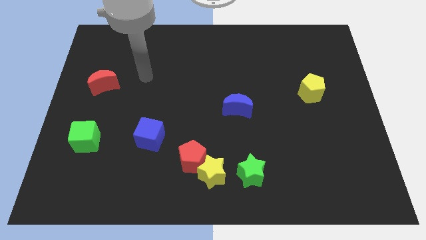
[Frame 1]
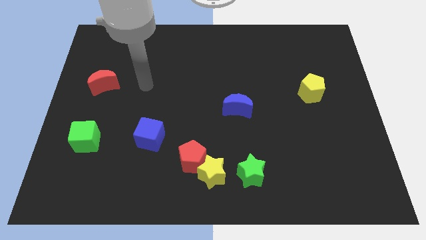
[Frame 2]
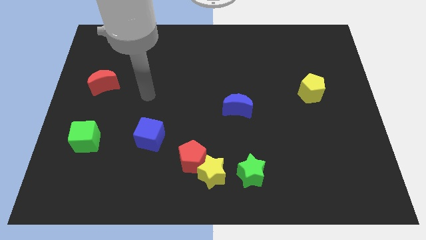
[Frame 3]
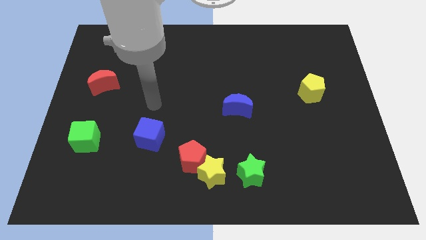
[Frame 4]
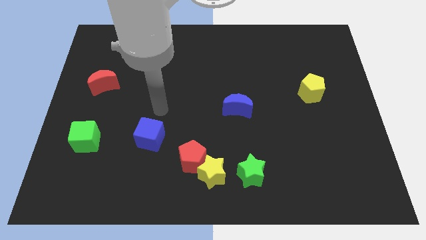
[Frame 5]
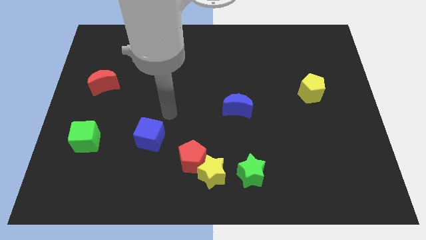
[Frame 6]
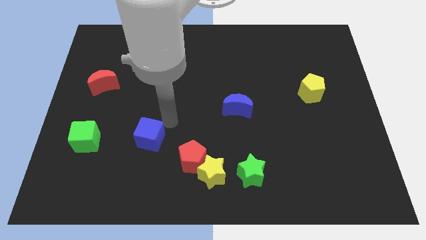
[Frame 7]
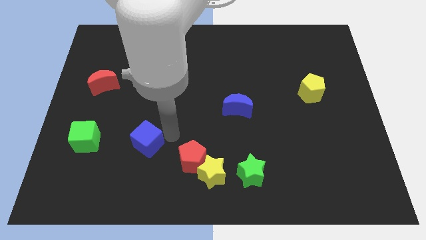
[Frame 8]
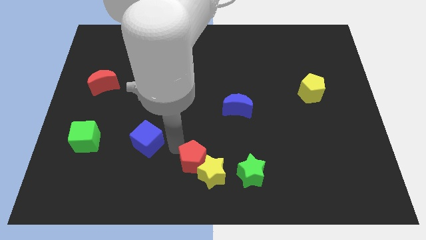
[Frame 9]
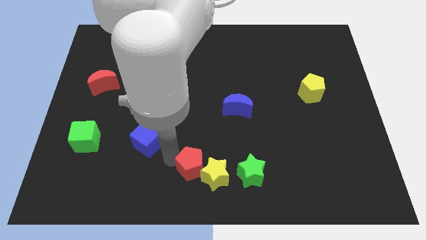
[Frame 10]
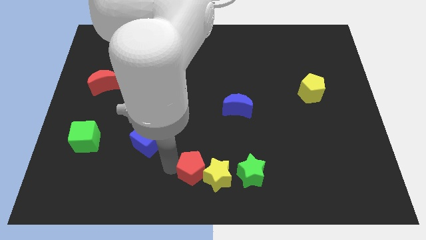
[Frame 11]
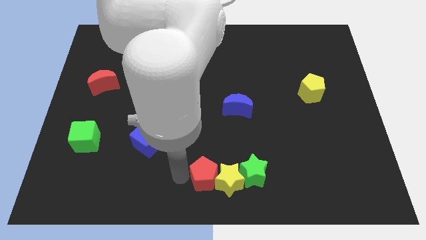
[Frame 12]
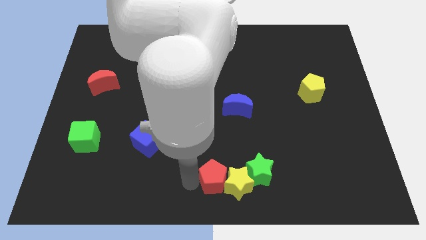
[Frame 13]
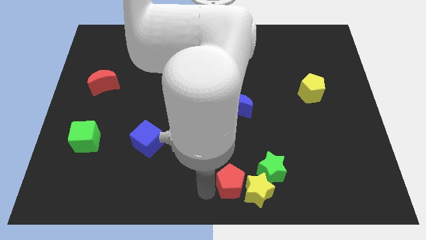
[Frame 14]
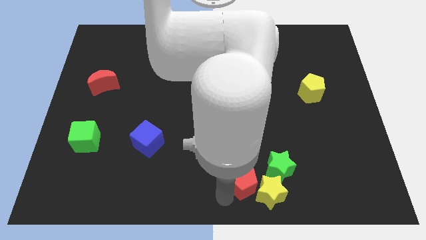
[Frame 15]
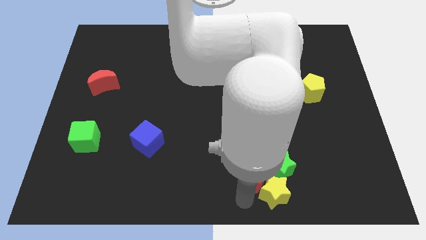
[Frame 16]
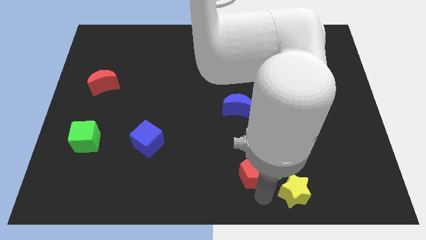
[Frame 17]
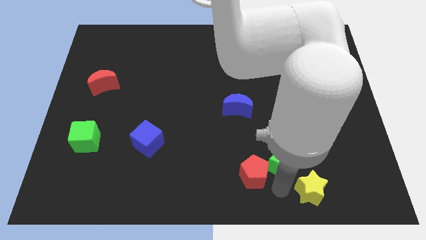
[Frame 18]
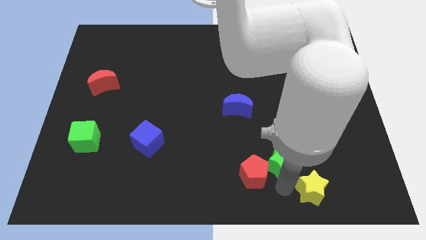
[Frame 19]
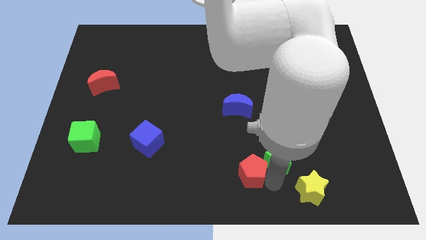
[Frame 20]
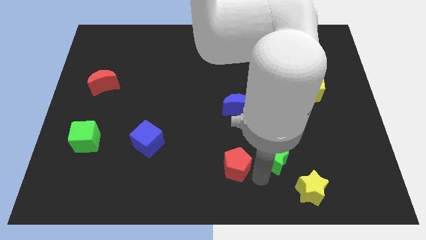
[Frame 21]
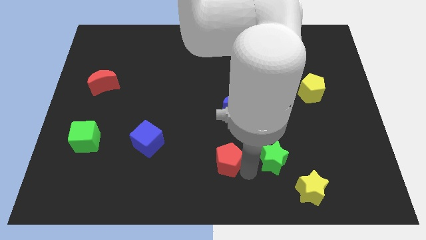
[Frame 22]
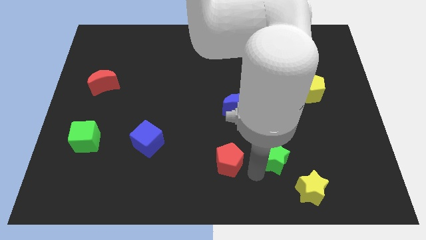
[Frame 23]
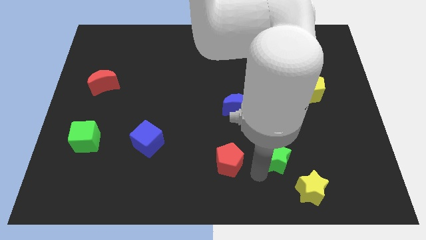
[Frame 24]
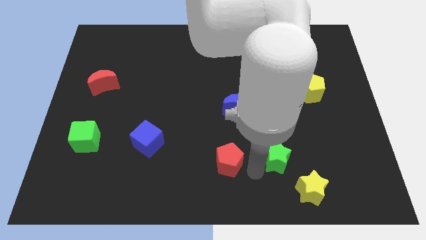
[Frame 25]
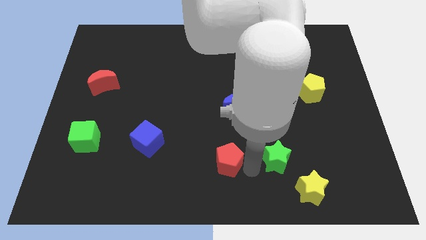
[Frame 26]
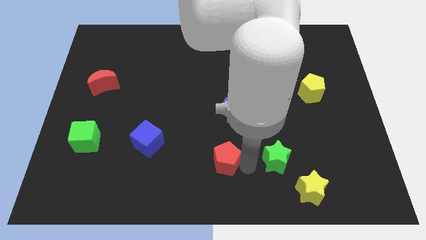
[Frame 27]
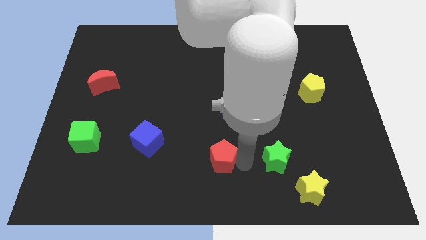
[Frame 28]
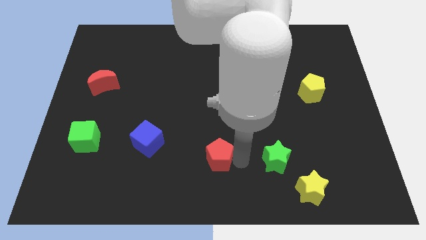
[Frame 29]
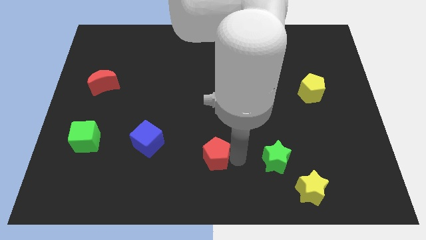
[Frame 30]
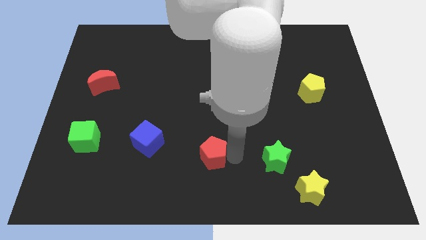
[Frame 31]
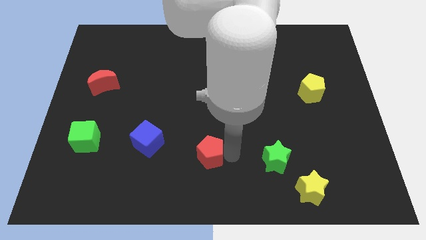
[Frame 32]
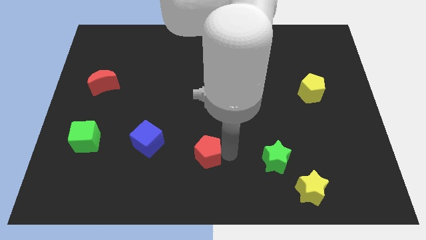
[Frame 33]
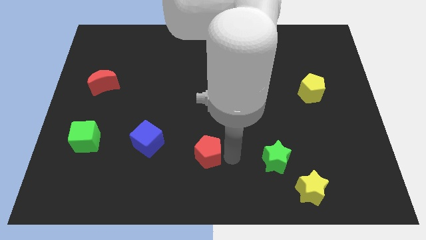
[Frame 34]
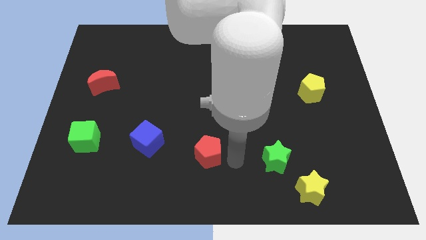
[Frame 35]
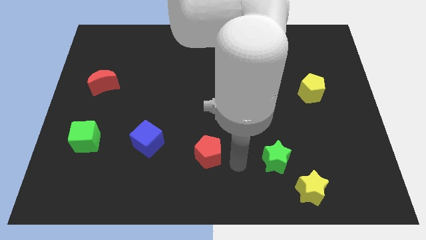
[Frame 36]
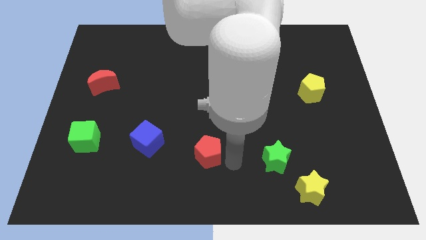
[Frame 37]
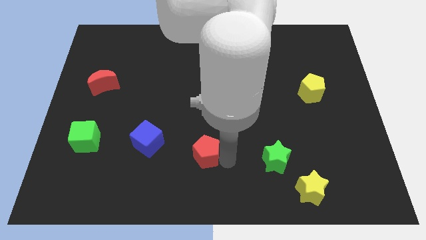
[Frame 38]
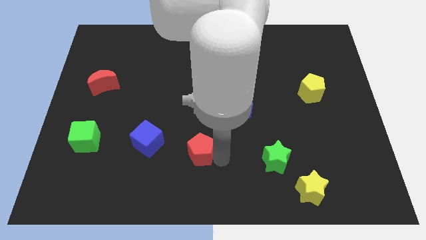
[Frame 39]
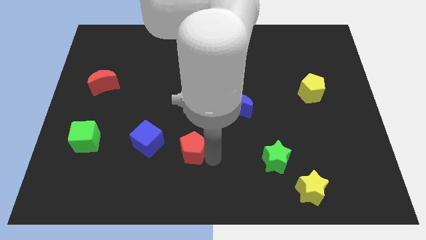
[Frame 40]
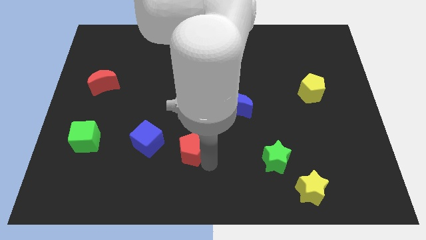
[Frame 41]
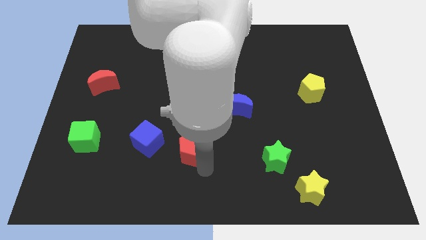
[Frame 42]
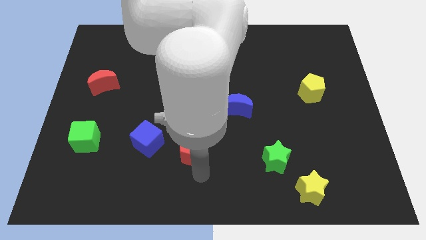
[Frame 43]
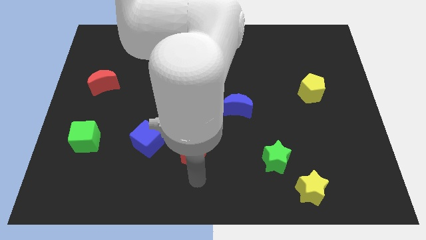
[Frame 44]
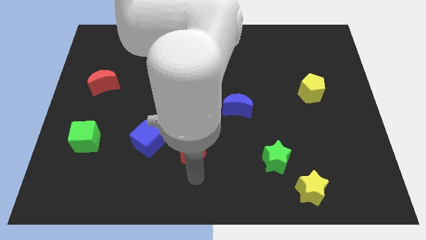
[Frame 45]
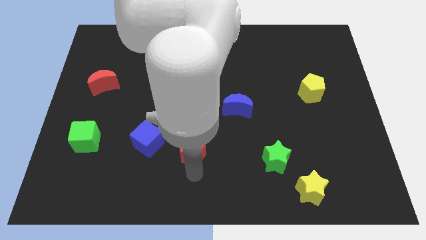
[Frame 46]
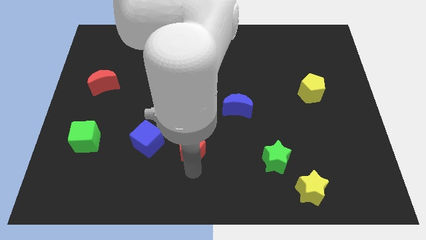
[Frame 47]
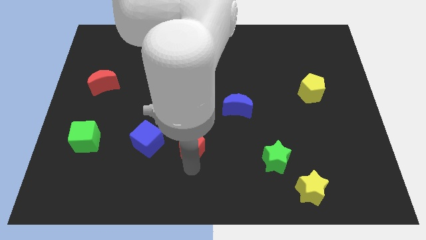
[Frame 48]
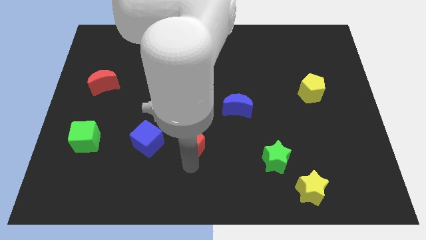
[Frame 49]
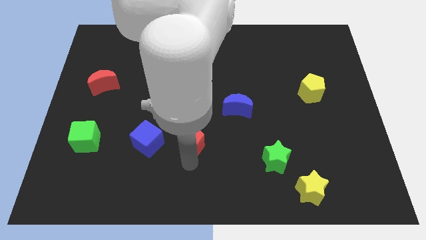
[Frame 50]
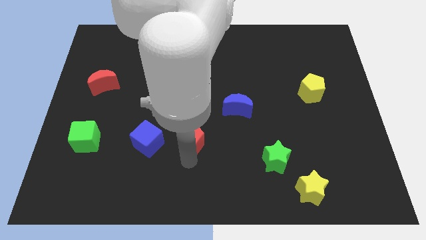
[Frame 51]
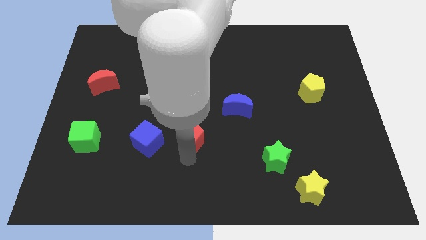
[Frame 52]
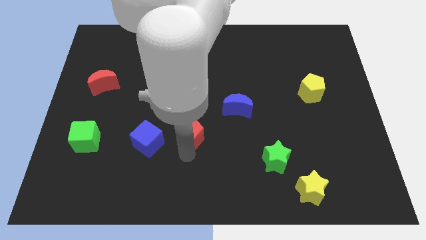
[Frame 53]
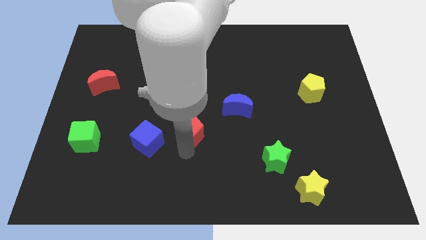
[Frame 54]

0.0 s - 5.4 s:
move the red pentagon up a little bit

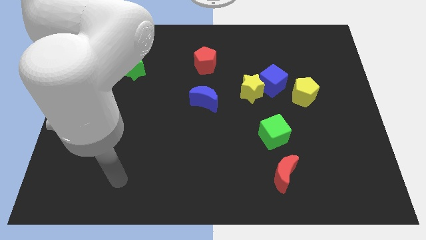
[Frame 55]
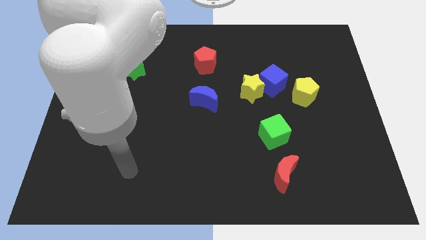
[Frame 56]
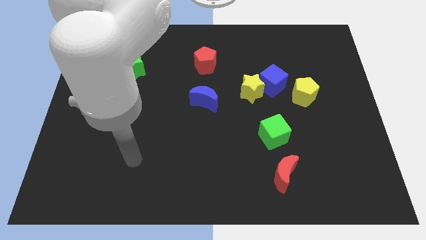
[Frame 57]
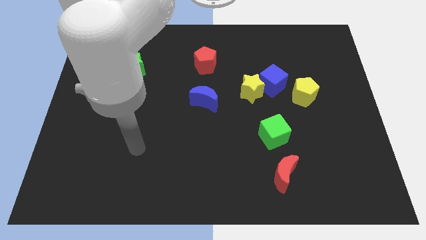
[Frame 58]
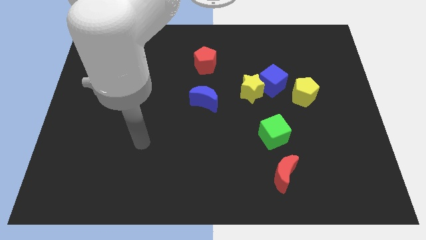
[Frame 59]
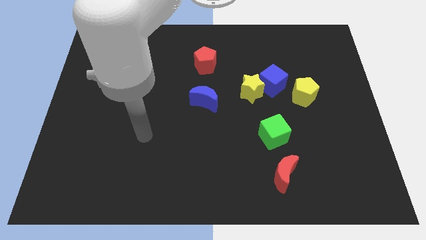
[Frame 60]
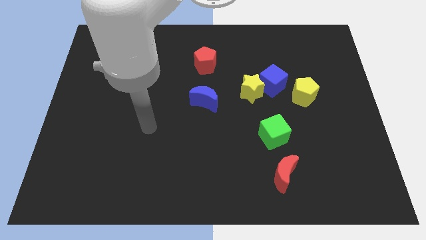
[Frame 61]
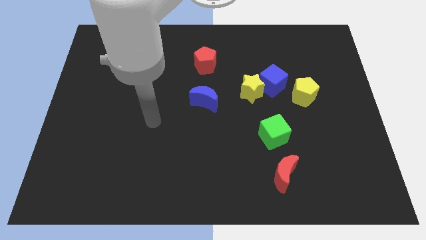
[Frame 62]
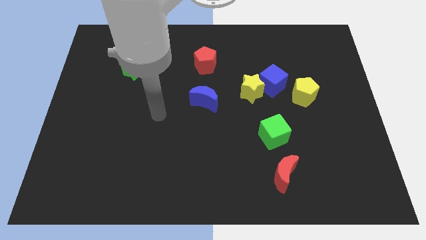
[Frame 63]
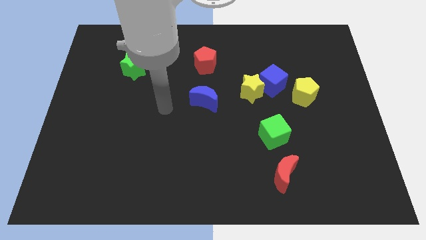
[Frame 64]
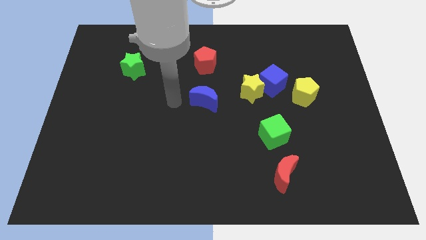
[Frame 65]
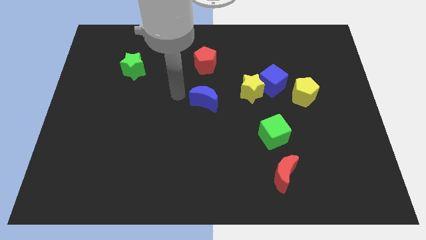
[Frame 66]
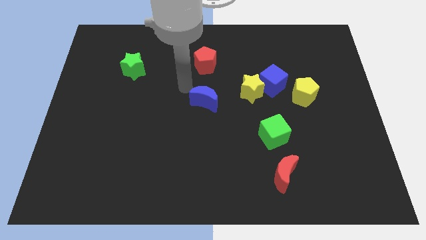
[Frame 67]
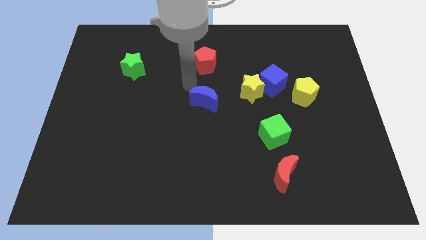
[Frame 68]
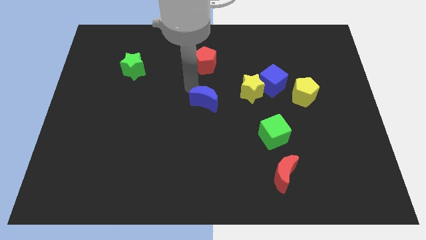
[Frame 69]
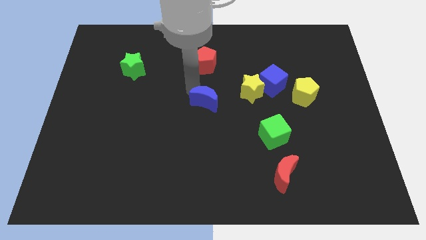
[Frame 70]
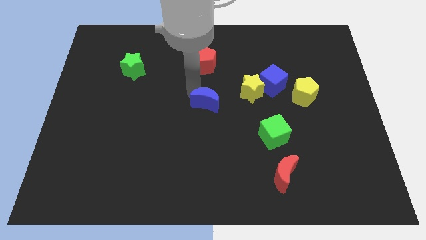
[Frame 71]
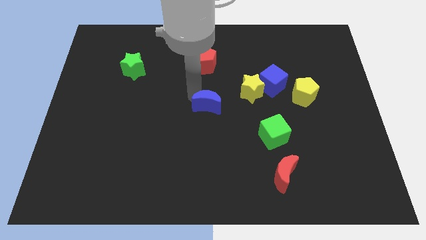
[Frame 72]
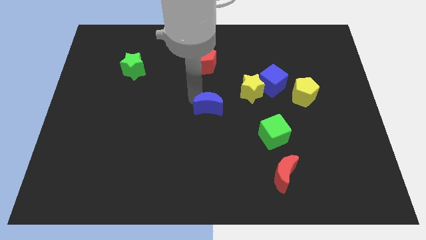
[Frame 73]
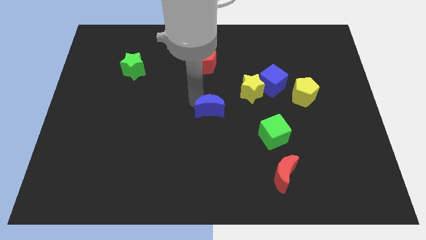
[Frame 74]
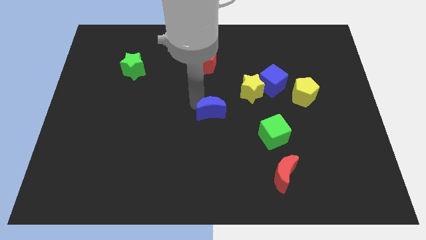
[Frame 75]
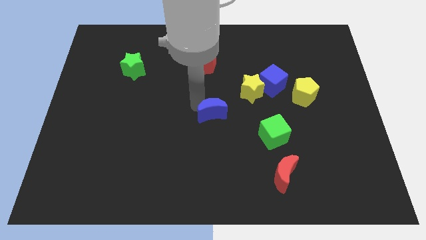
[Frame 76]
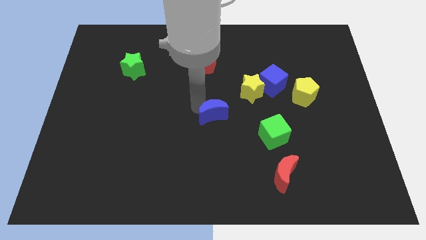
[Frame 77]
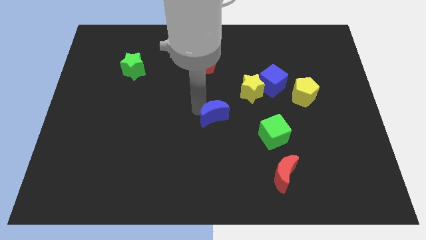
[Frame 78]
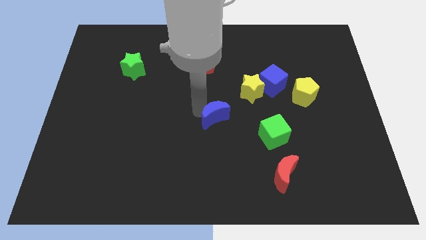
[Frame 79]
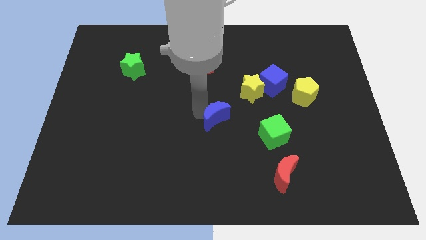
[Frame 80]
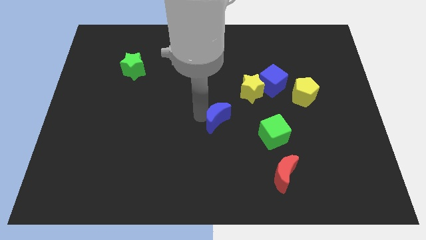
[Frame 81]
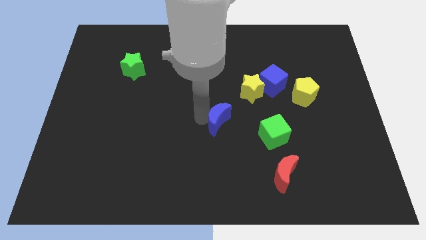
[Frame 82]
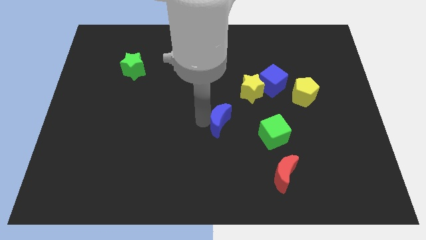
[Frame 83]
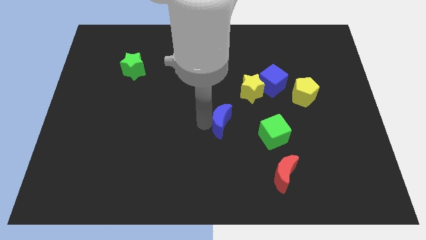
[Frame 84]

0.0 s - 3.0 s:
slide the blue moon down and to the right slightly
